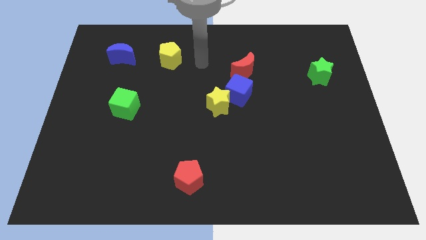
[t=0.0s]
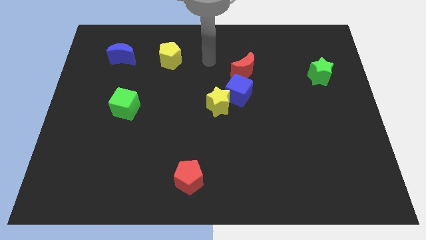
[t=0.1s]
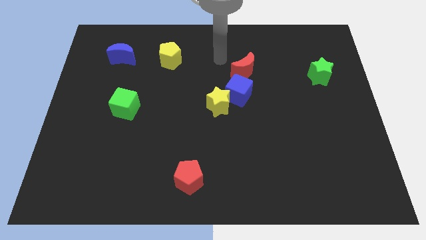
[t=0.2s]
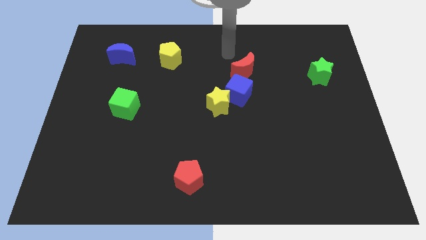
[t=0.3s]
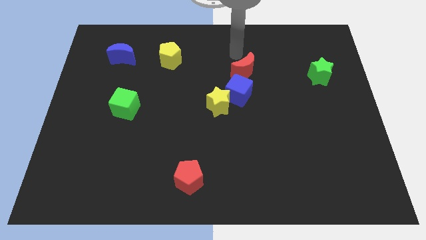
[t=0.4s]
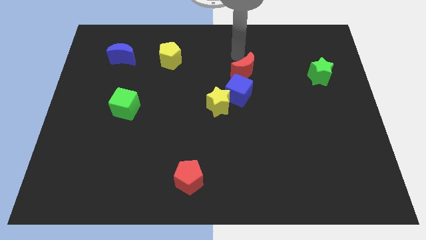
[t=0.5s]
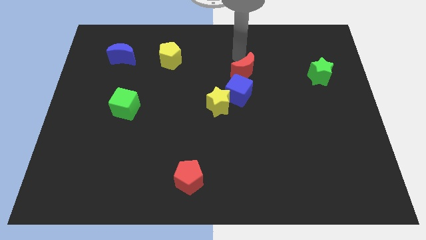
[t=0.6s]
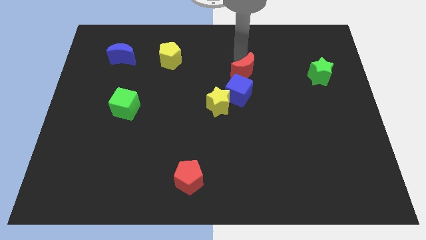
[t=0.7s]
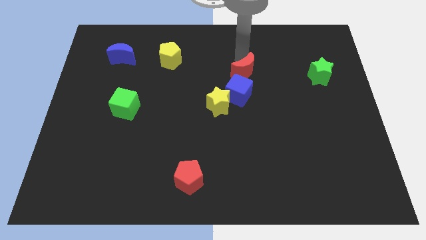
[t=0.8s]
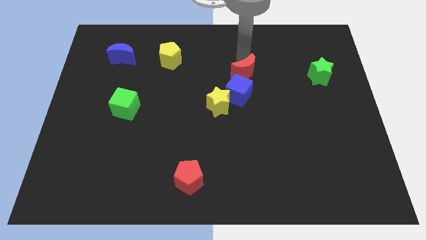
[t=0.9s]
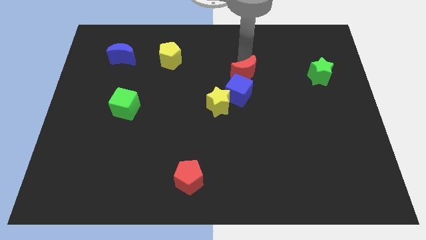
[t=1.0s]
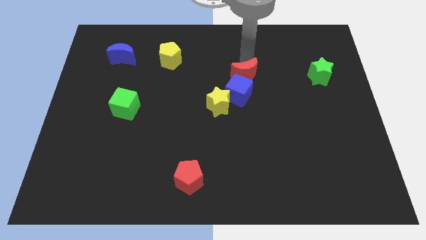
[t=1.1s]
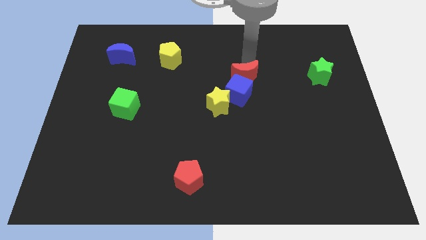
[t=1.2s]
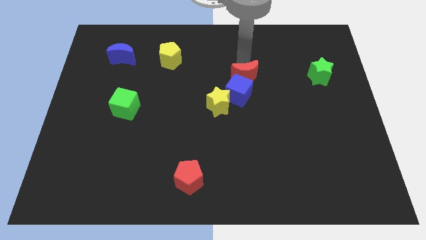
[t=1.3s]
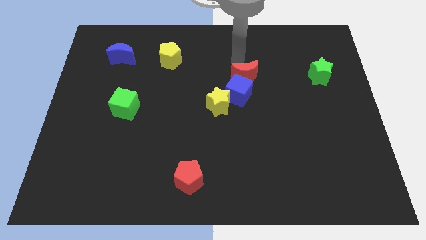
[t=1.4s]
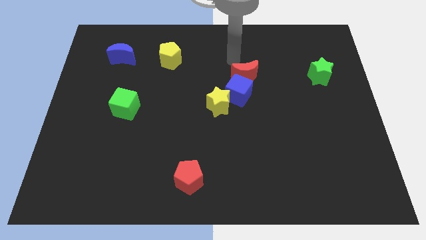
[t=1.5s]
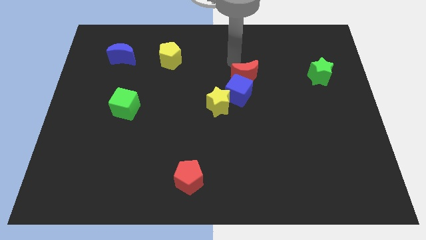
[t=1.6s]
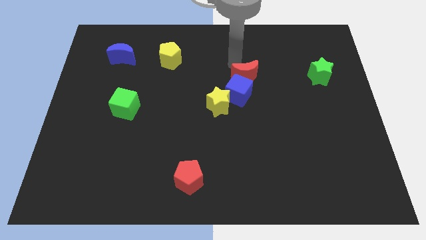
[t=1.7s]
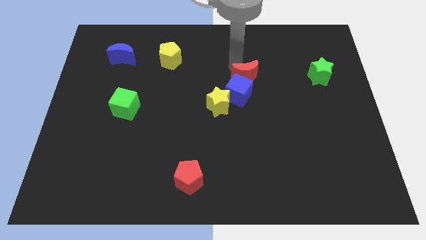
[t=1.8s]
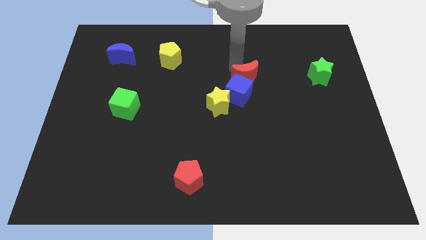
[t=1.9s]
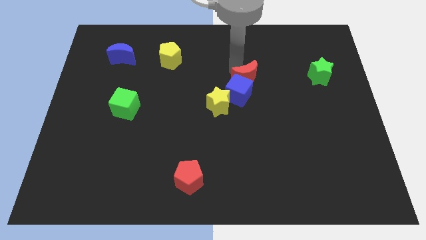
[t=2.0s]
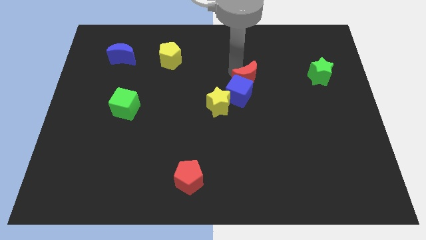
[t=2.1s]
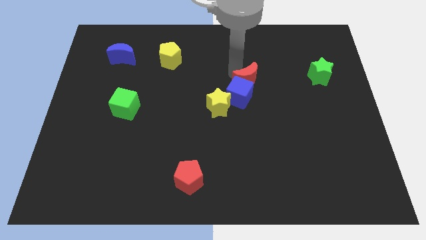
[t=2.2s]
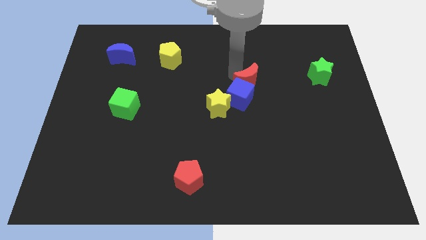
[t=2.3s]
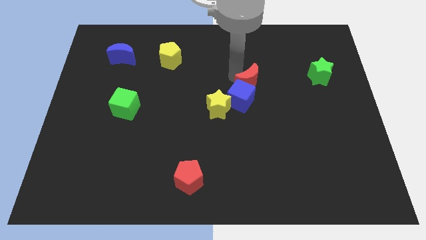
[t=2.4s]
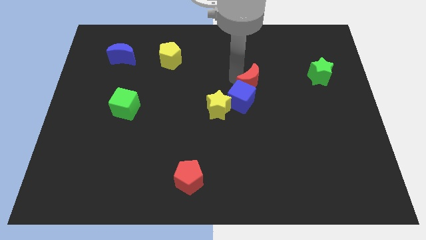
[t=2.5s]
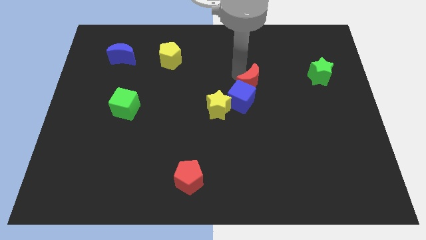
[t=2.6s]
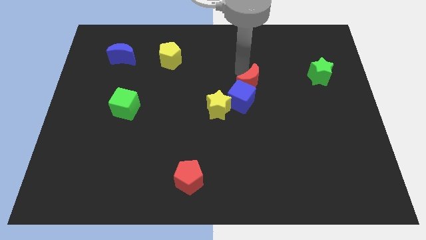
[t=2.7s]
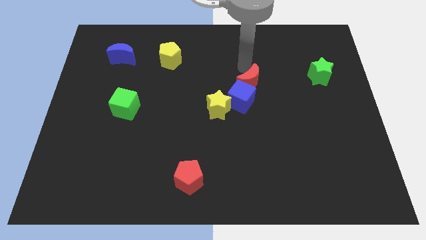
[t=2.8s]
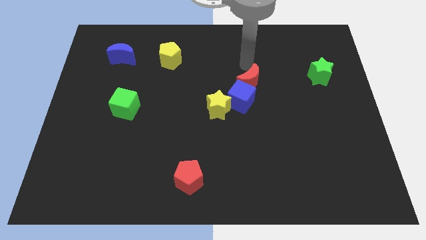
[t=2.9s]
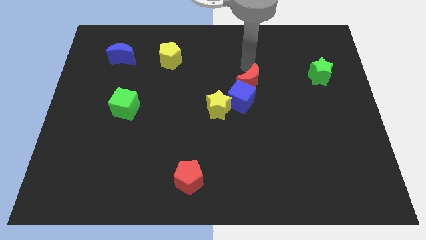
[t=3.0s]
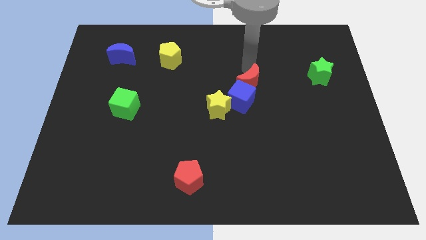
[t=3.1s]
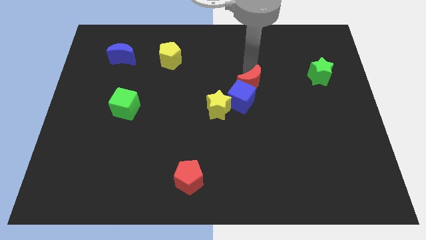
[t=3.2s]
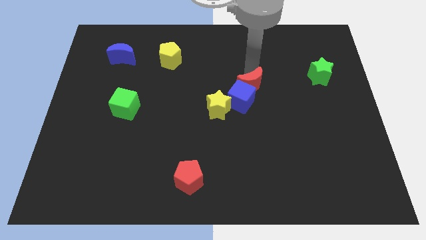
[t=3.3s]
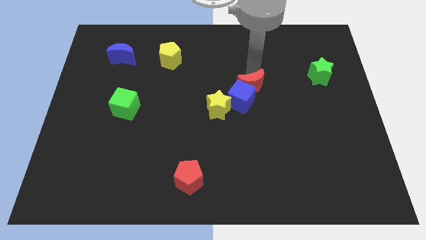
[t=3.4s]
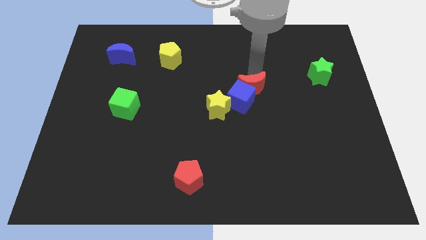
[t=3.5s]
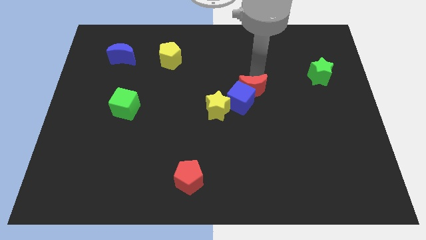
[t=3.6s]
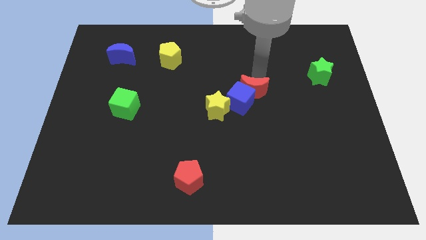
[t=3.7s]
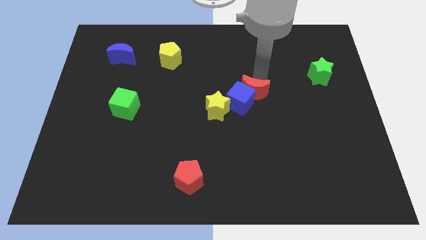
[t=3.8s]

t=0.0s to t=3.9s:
slide the red moon a bit downwards

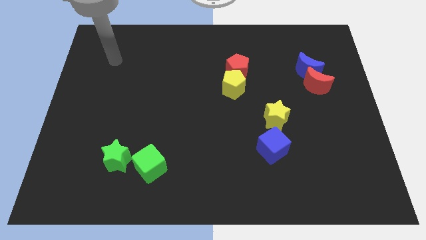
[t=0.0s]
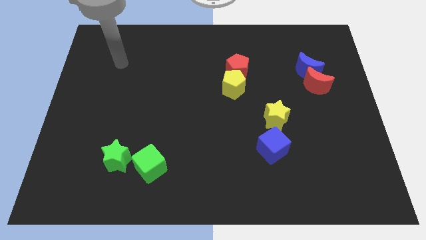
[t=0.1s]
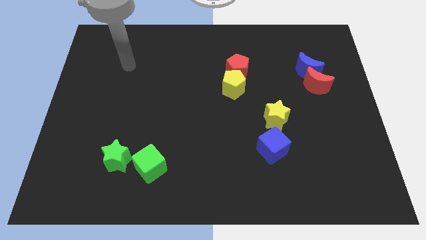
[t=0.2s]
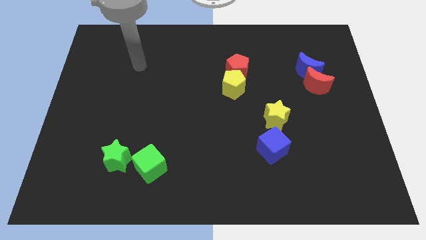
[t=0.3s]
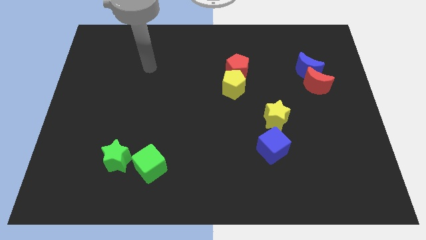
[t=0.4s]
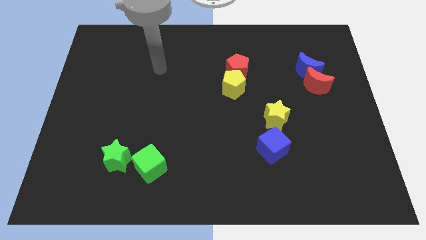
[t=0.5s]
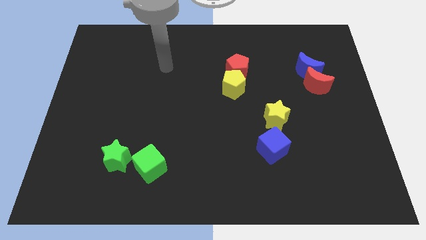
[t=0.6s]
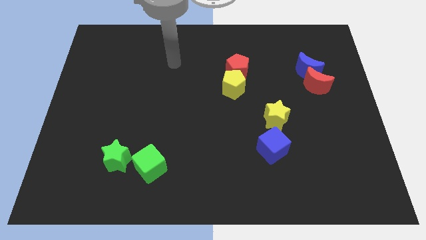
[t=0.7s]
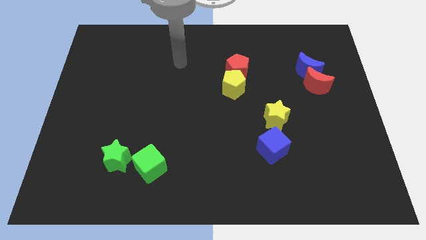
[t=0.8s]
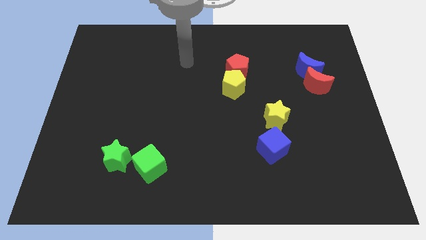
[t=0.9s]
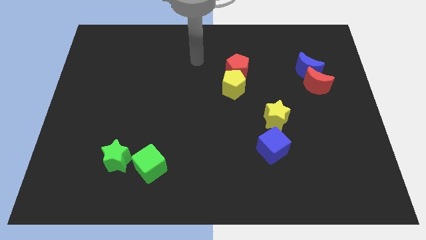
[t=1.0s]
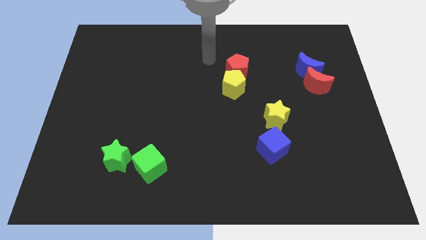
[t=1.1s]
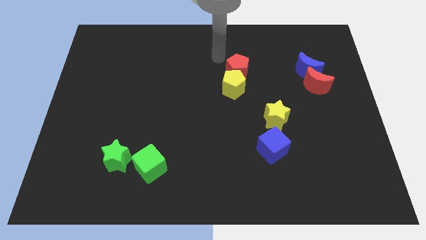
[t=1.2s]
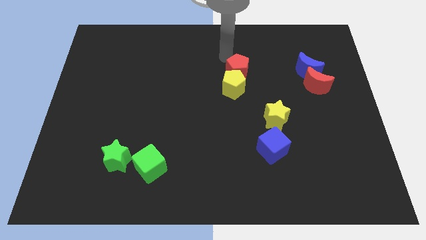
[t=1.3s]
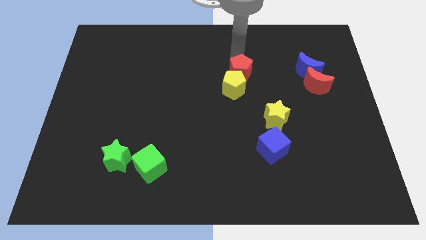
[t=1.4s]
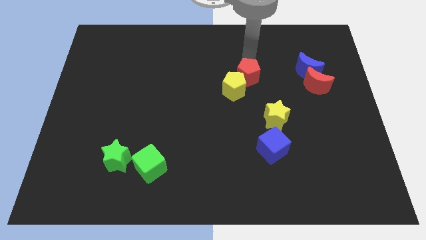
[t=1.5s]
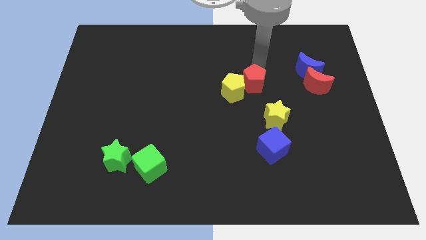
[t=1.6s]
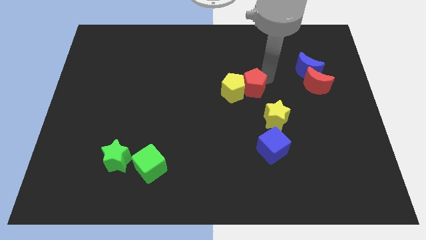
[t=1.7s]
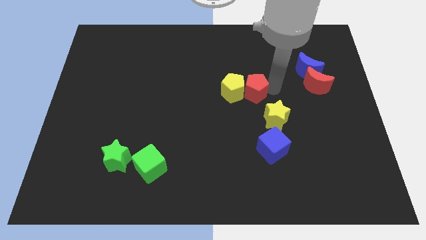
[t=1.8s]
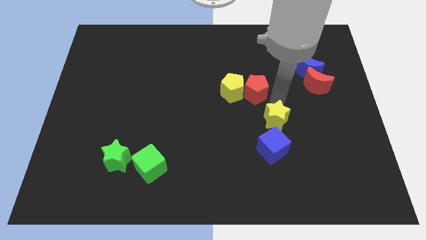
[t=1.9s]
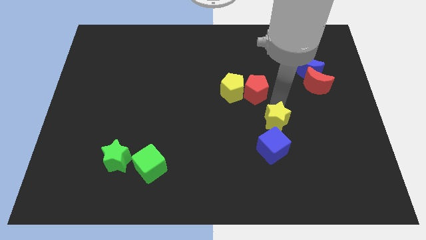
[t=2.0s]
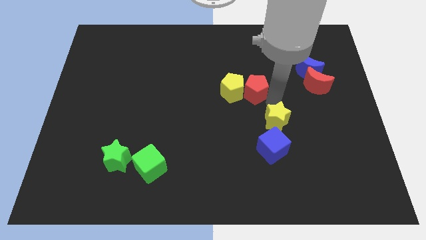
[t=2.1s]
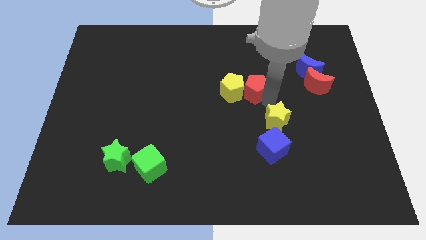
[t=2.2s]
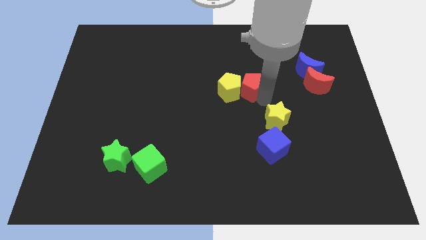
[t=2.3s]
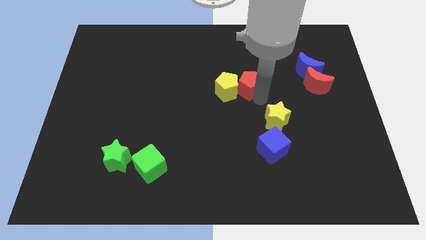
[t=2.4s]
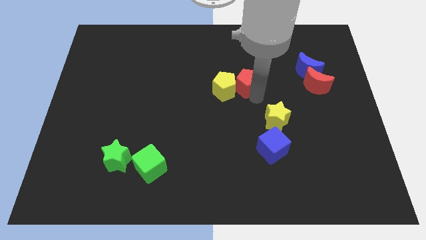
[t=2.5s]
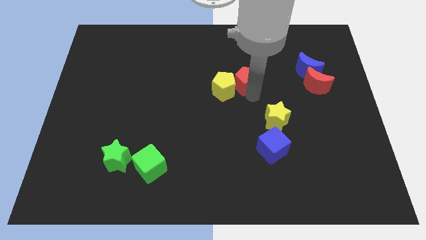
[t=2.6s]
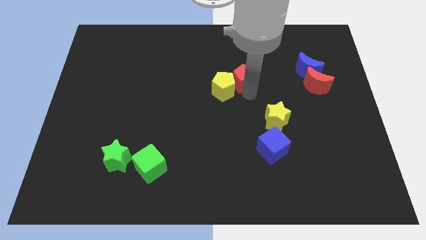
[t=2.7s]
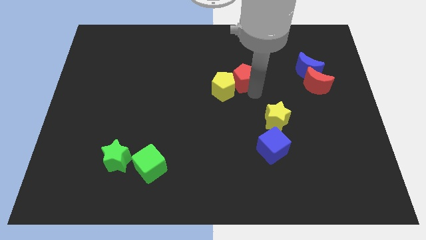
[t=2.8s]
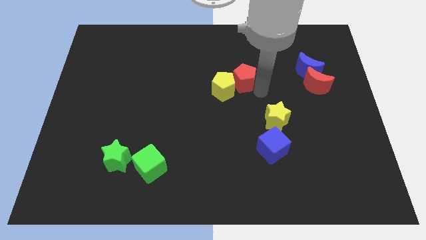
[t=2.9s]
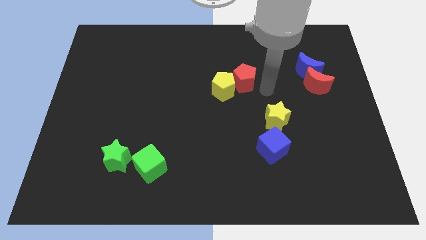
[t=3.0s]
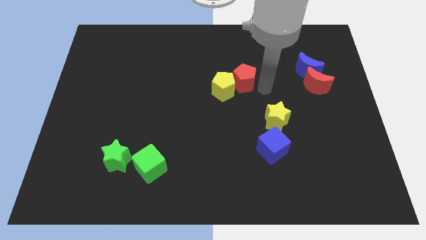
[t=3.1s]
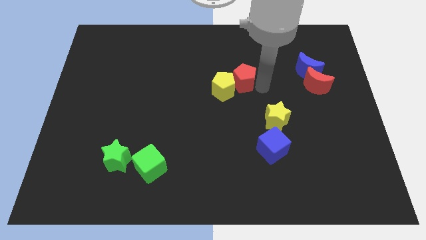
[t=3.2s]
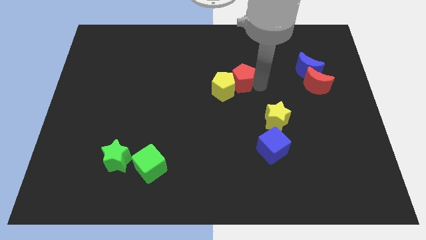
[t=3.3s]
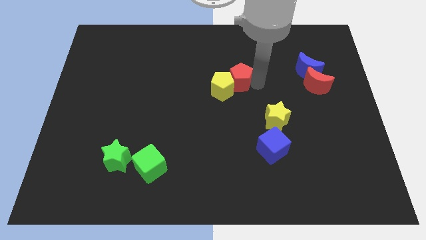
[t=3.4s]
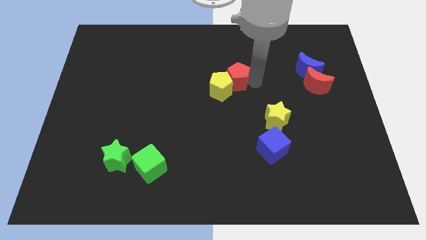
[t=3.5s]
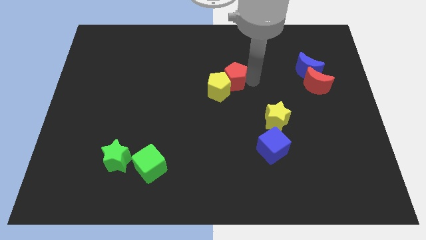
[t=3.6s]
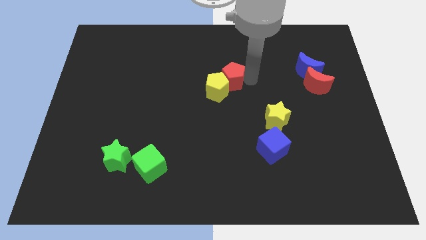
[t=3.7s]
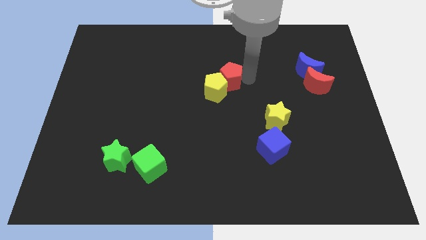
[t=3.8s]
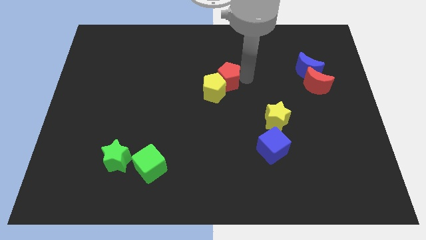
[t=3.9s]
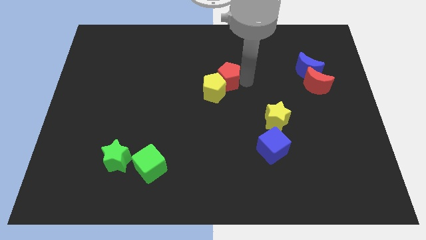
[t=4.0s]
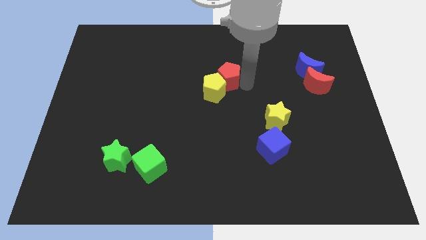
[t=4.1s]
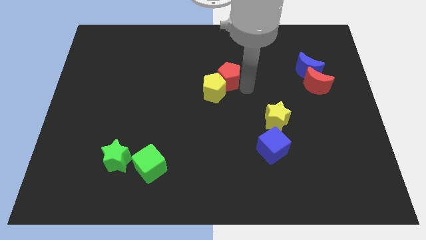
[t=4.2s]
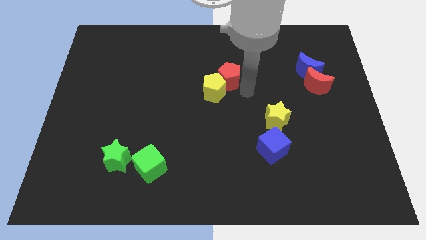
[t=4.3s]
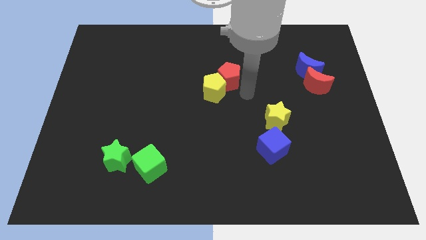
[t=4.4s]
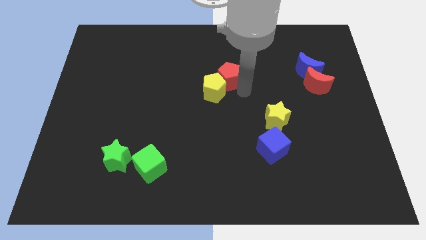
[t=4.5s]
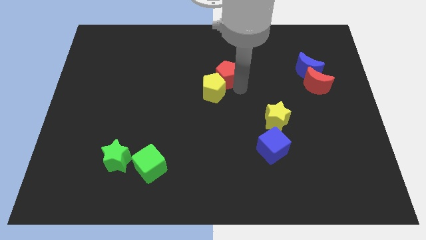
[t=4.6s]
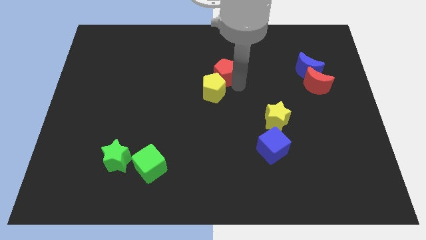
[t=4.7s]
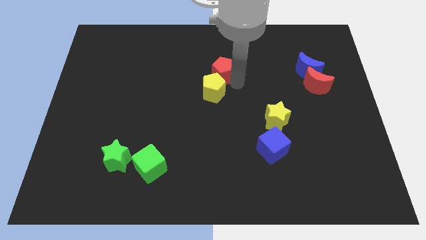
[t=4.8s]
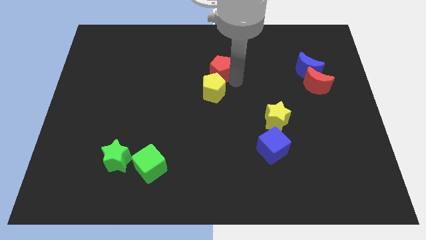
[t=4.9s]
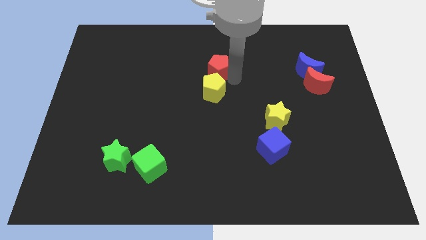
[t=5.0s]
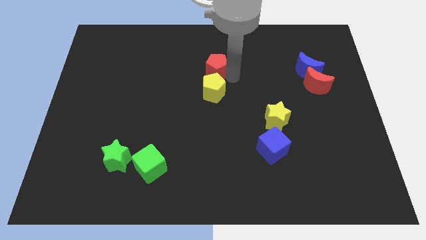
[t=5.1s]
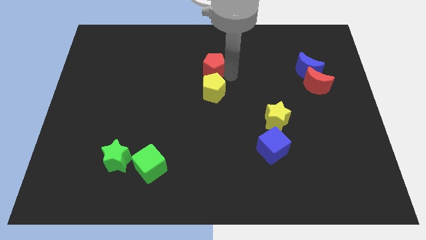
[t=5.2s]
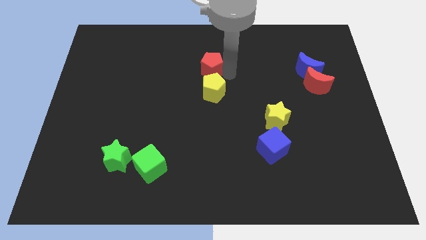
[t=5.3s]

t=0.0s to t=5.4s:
slide the red pentagon to the left a little bit
